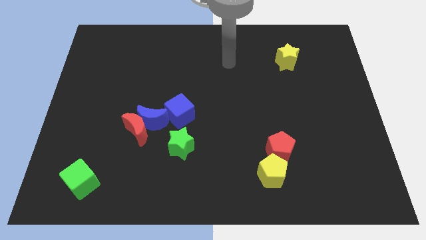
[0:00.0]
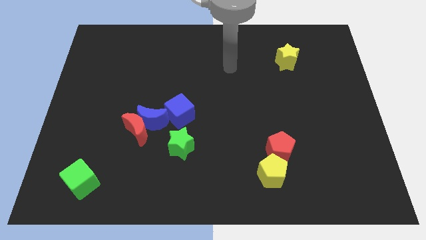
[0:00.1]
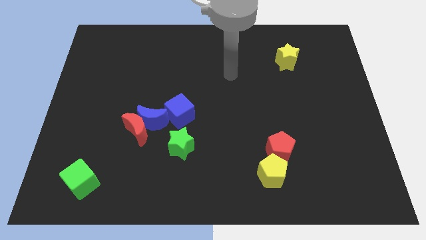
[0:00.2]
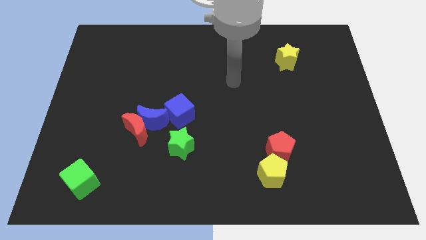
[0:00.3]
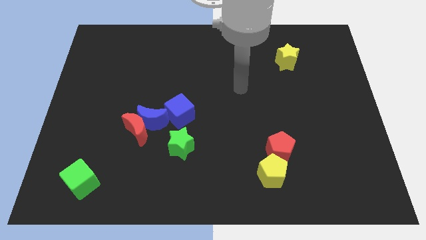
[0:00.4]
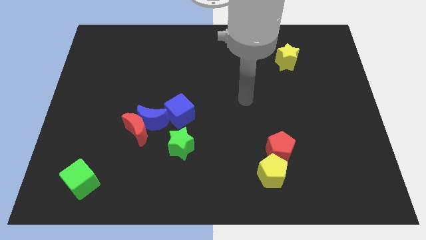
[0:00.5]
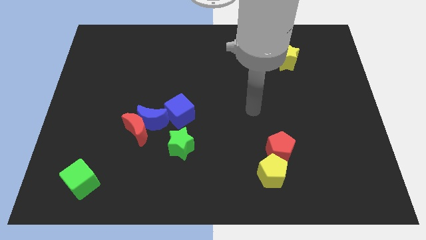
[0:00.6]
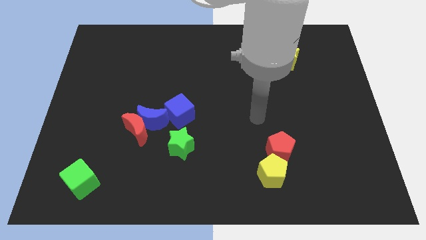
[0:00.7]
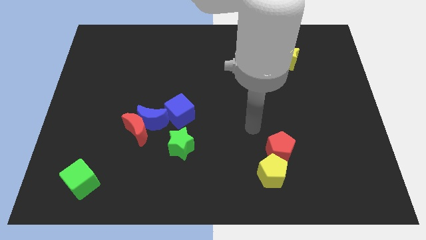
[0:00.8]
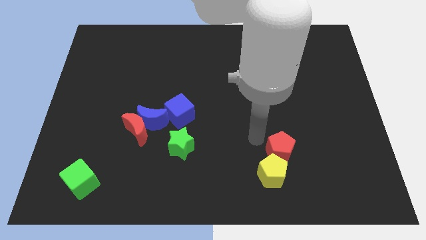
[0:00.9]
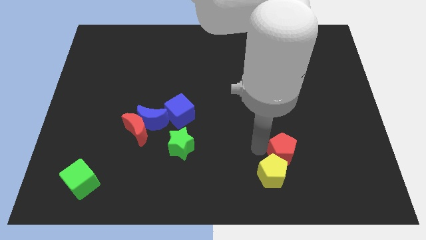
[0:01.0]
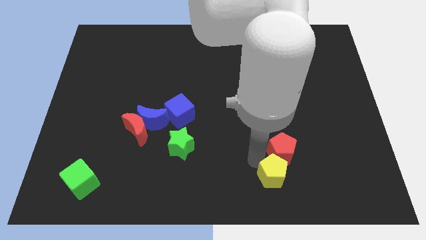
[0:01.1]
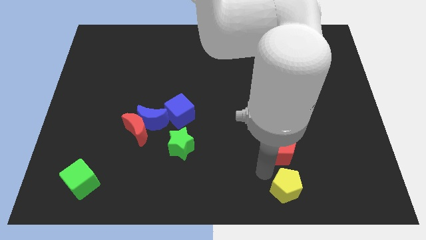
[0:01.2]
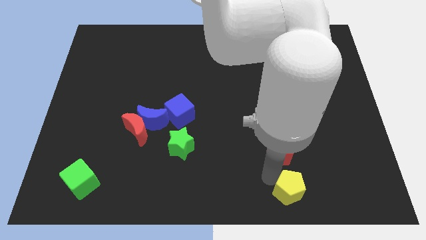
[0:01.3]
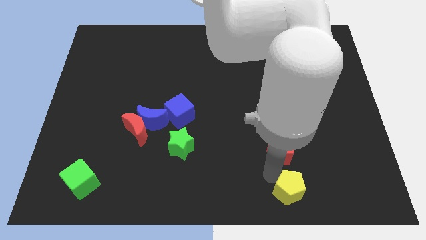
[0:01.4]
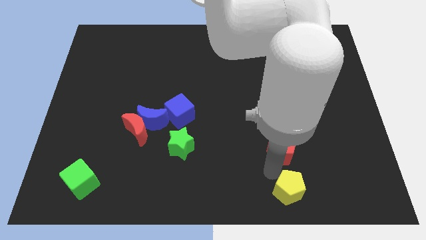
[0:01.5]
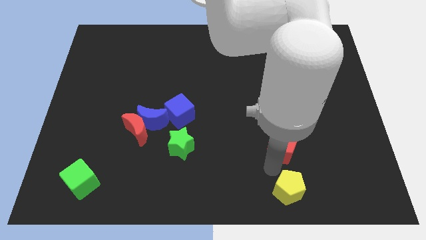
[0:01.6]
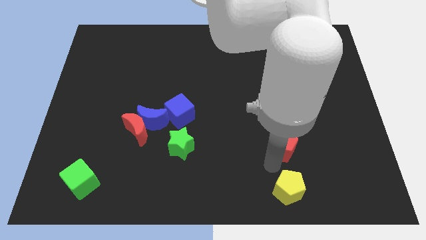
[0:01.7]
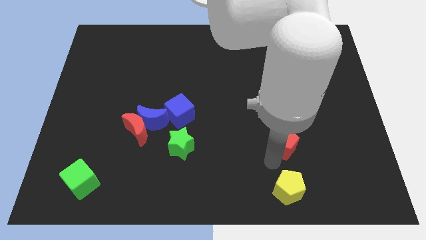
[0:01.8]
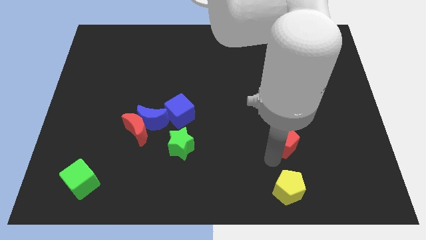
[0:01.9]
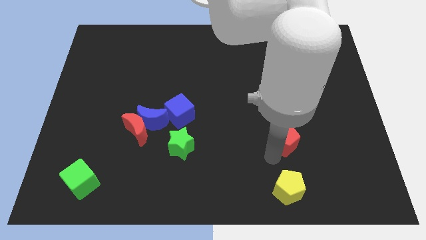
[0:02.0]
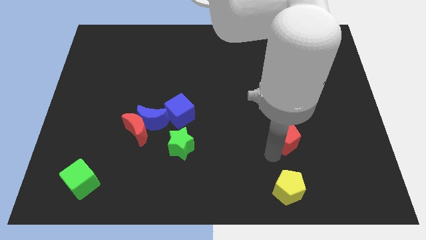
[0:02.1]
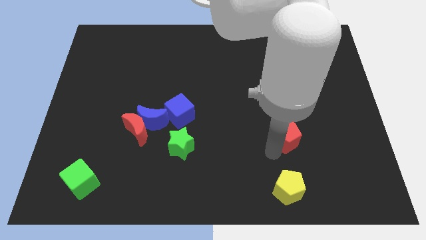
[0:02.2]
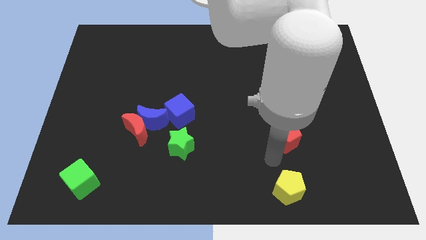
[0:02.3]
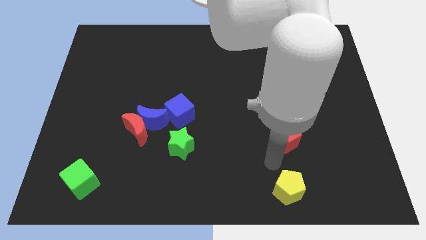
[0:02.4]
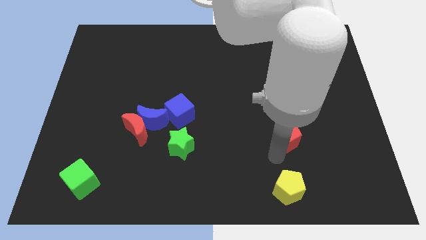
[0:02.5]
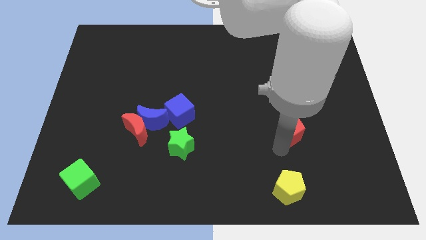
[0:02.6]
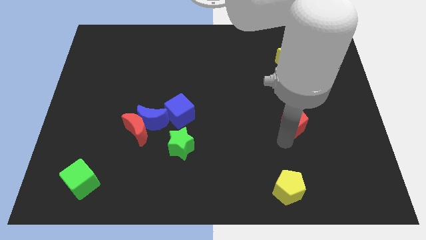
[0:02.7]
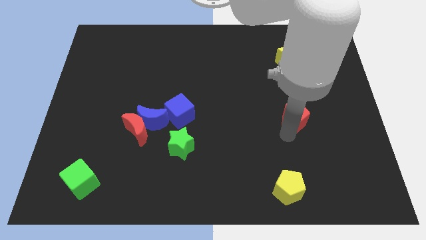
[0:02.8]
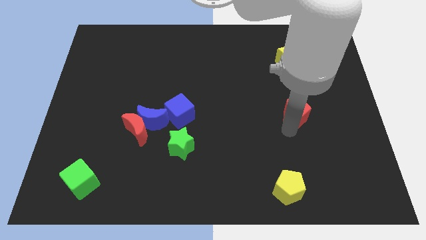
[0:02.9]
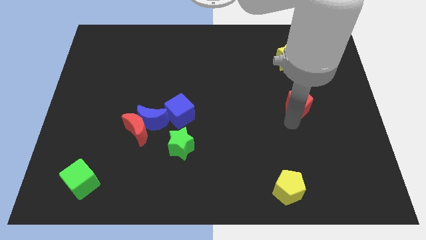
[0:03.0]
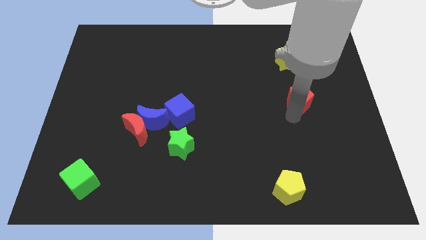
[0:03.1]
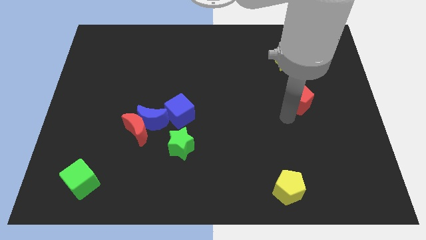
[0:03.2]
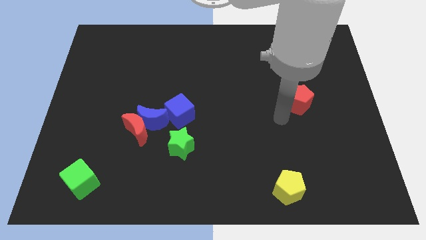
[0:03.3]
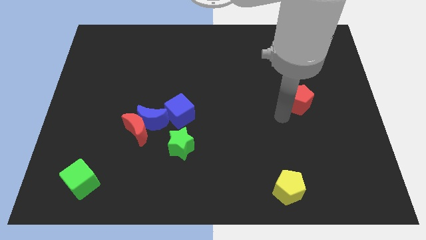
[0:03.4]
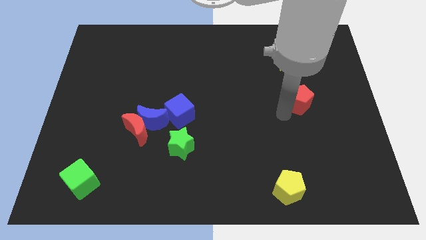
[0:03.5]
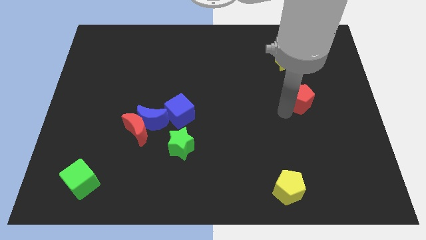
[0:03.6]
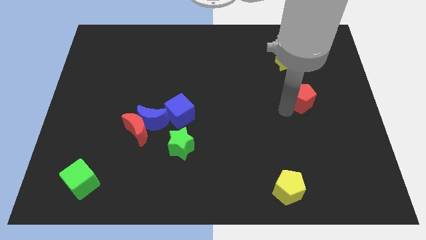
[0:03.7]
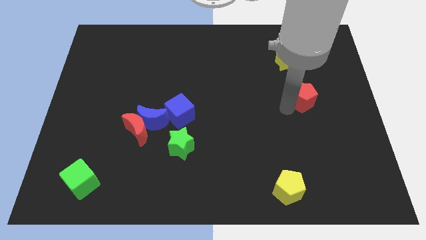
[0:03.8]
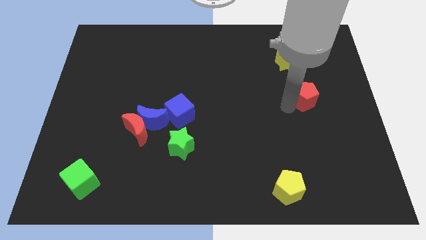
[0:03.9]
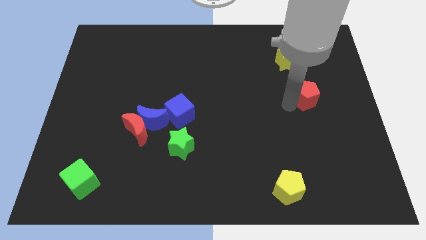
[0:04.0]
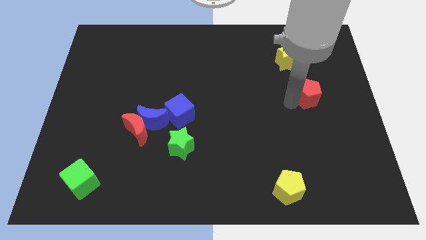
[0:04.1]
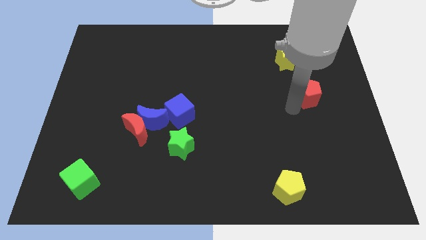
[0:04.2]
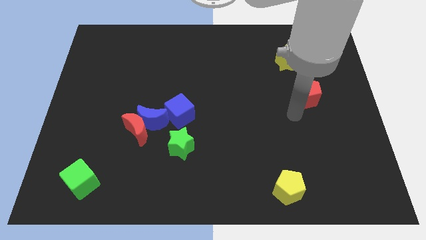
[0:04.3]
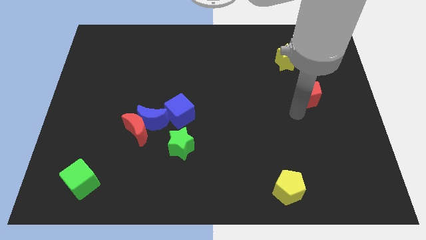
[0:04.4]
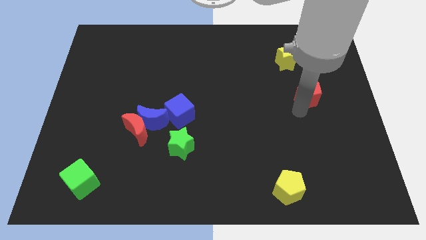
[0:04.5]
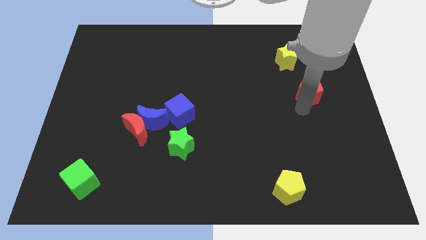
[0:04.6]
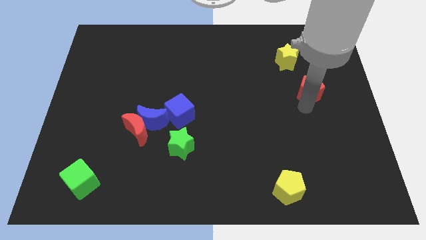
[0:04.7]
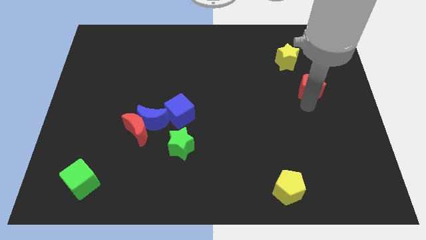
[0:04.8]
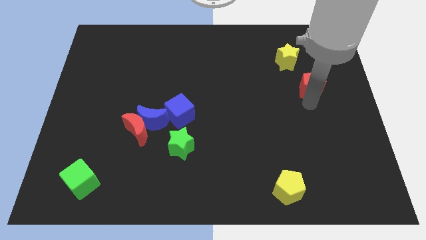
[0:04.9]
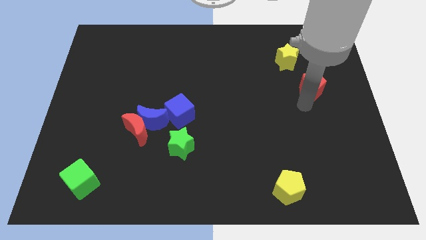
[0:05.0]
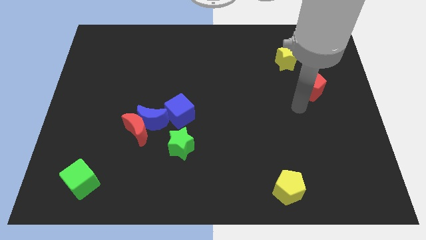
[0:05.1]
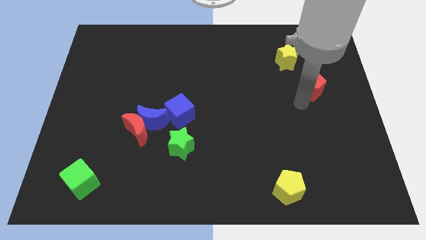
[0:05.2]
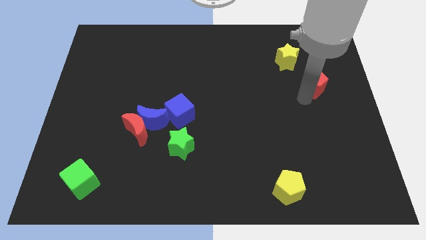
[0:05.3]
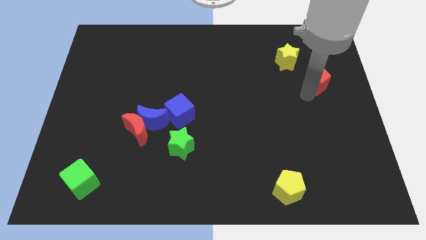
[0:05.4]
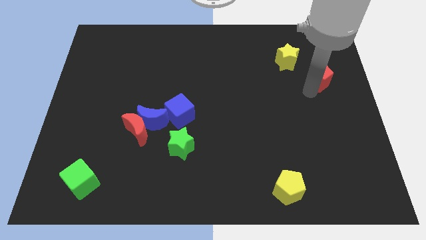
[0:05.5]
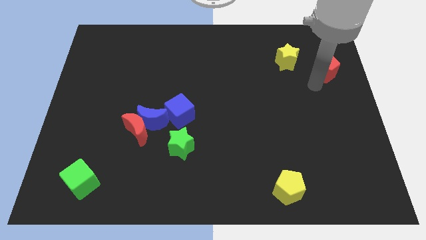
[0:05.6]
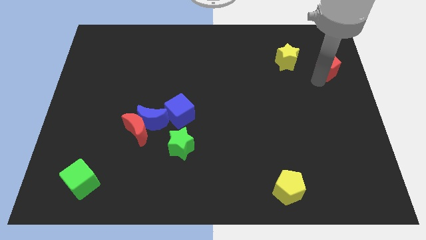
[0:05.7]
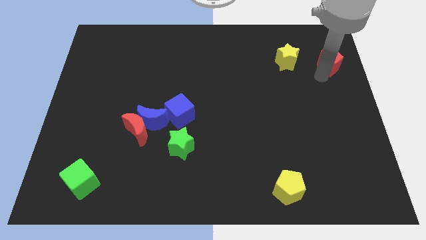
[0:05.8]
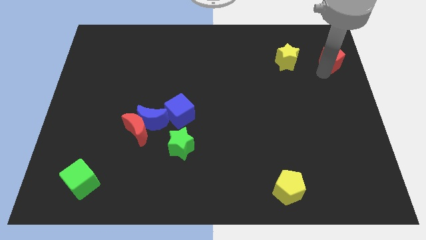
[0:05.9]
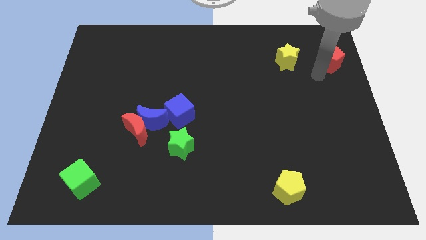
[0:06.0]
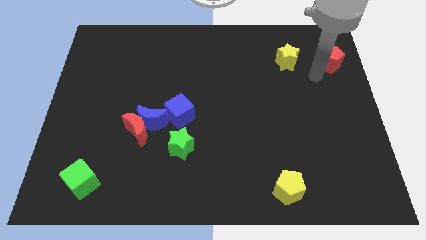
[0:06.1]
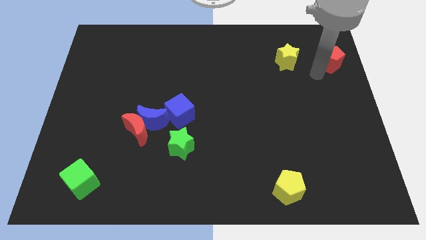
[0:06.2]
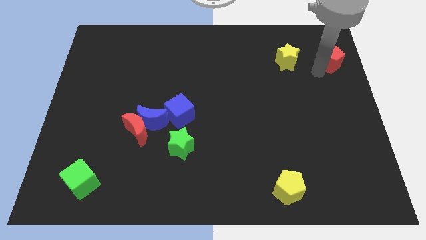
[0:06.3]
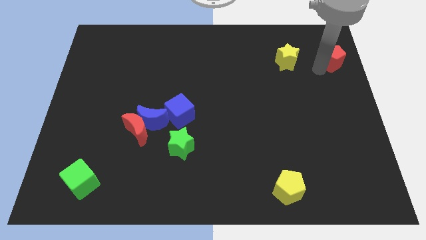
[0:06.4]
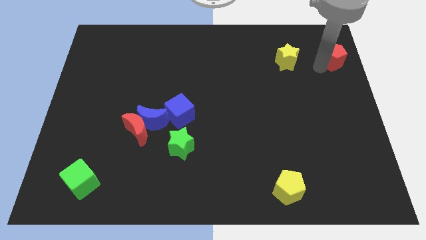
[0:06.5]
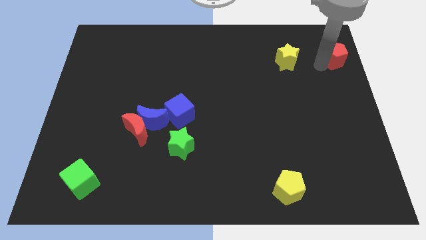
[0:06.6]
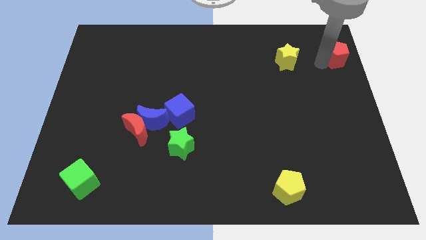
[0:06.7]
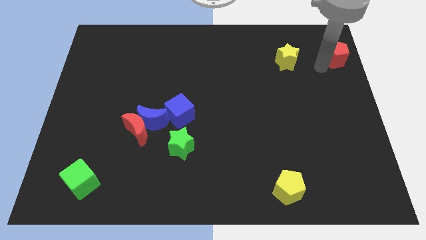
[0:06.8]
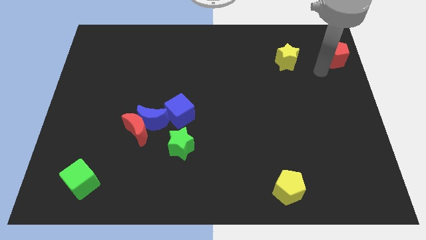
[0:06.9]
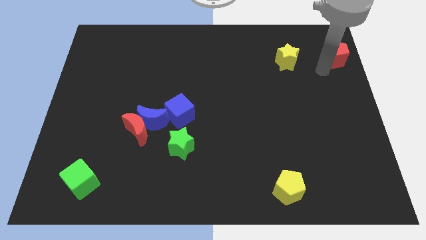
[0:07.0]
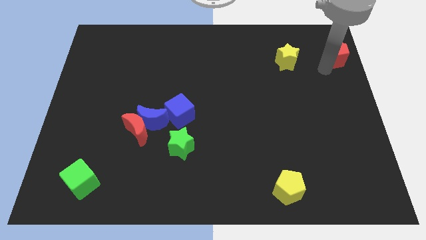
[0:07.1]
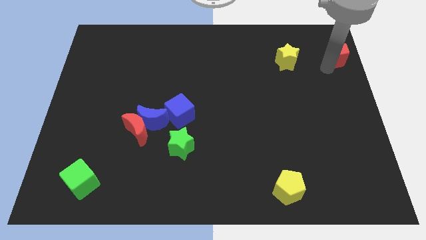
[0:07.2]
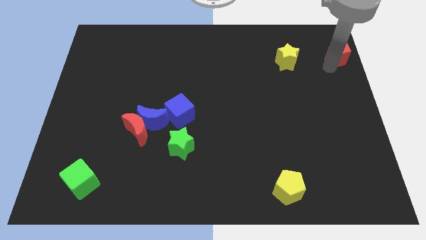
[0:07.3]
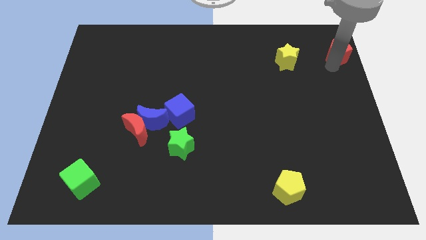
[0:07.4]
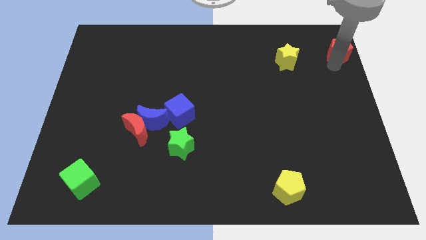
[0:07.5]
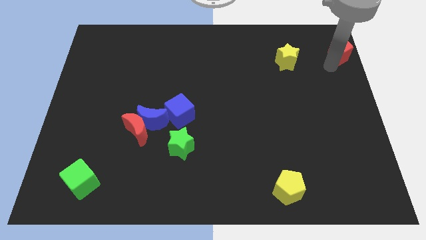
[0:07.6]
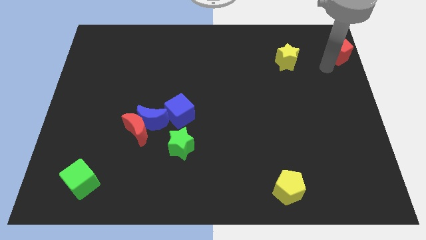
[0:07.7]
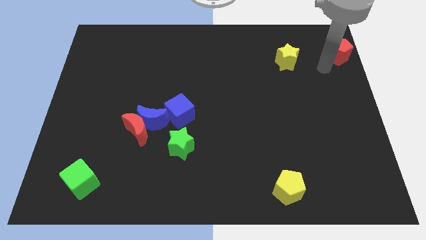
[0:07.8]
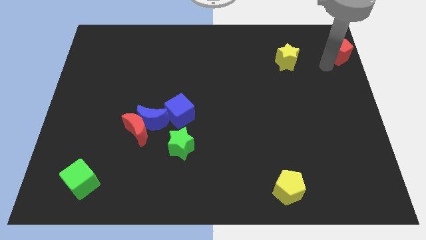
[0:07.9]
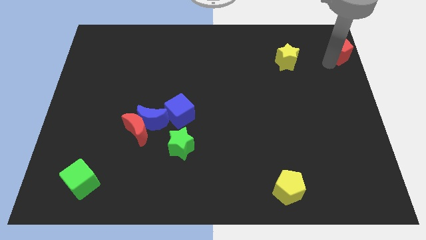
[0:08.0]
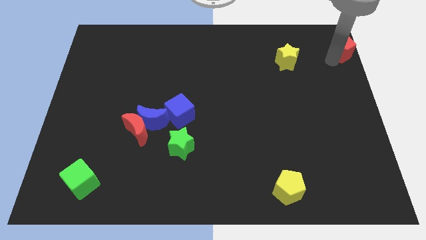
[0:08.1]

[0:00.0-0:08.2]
put the red pentagon to the top right
